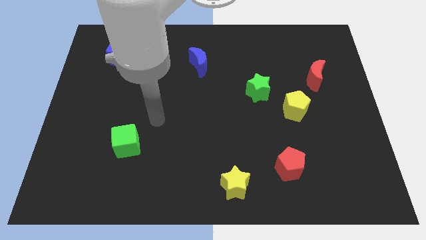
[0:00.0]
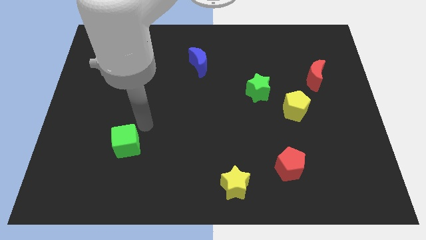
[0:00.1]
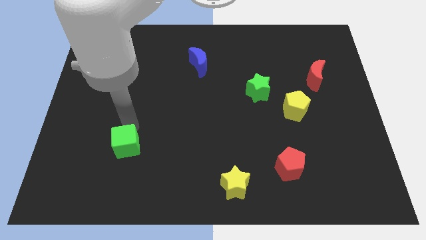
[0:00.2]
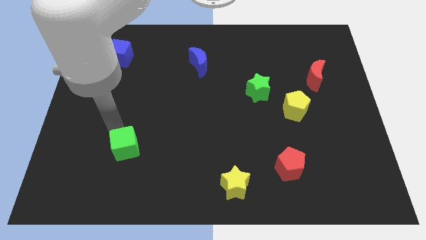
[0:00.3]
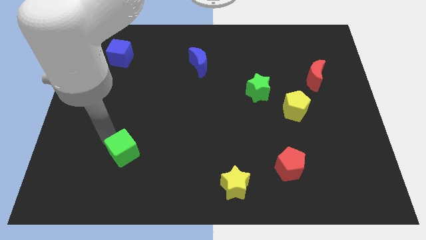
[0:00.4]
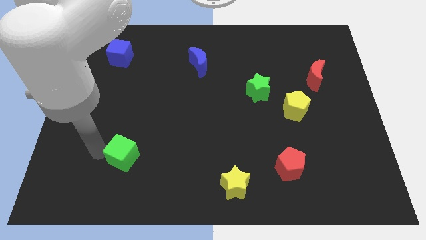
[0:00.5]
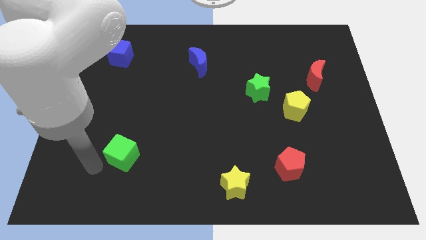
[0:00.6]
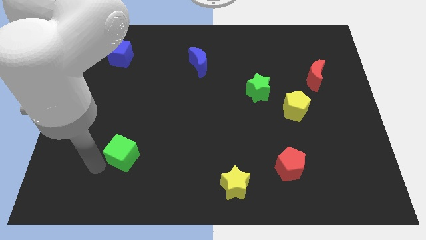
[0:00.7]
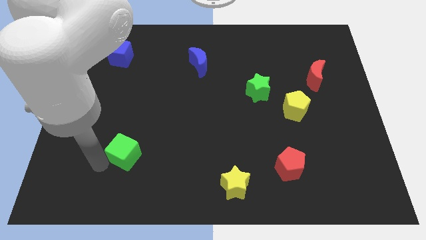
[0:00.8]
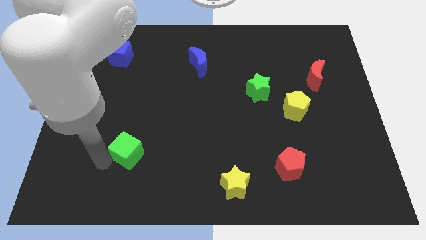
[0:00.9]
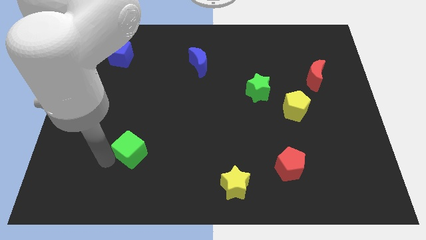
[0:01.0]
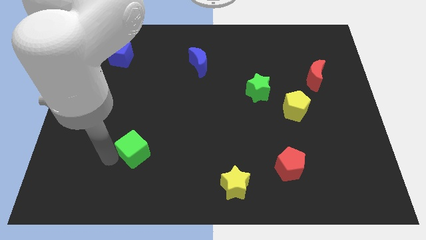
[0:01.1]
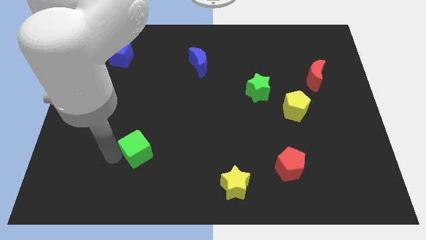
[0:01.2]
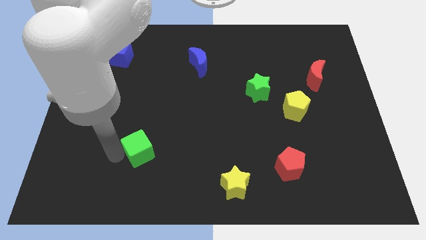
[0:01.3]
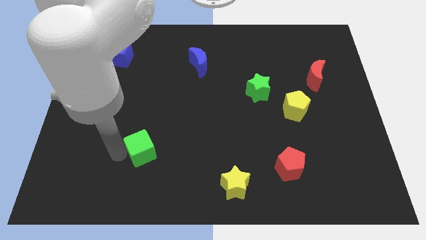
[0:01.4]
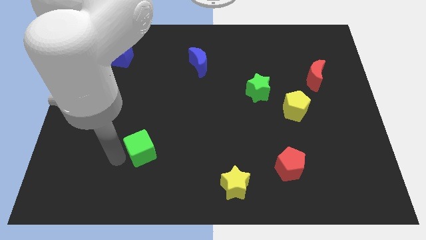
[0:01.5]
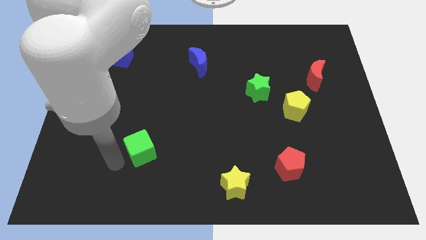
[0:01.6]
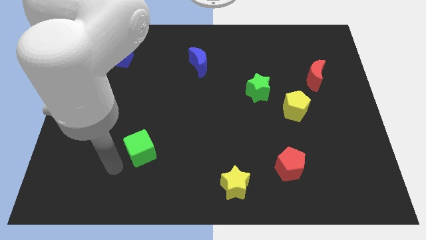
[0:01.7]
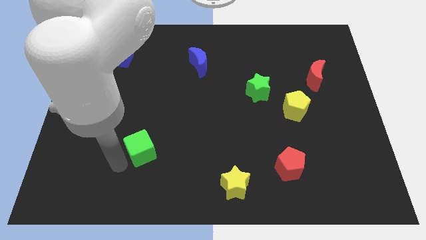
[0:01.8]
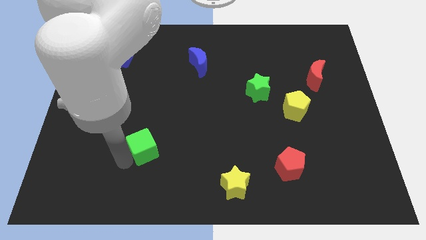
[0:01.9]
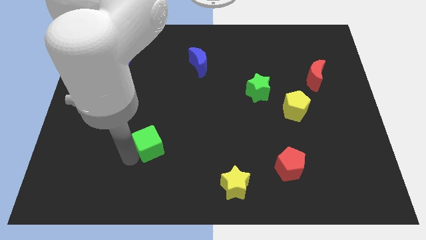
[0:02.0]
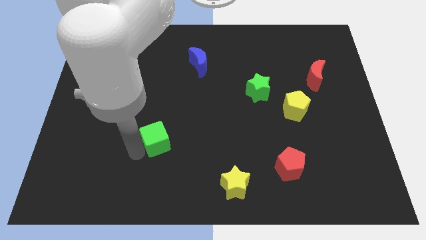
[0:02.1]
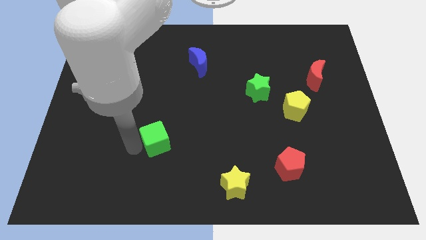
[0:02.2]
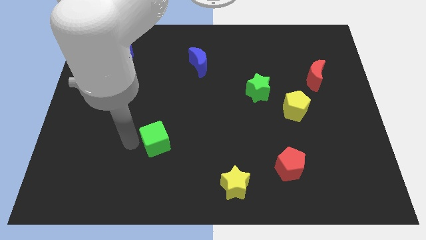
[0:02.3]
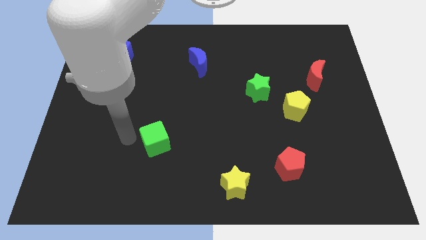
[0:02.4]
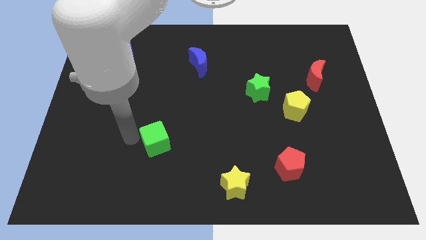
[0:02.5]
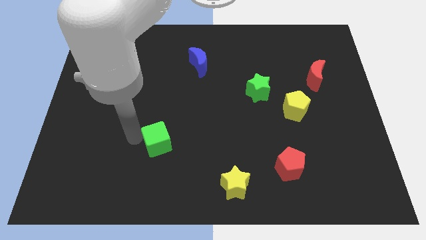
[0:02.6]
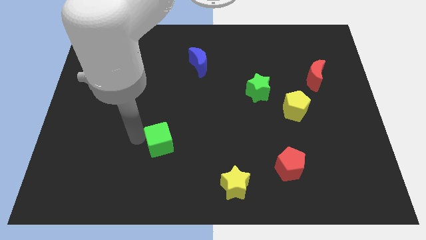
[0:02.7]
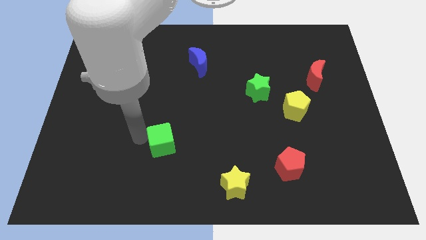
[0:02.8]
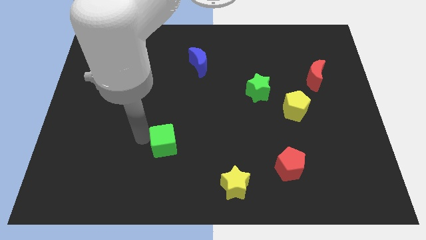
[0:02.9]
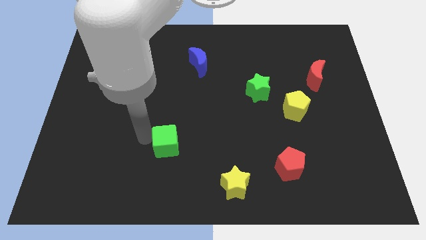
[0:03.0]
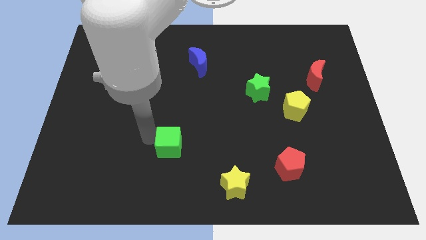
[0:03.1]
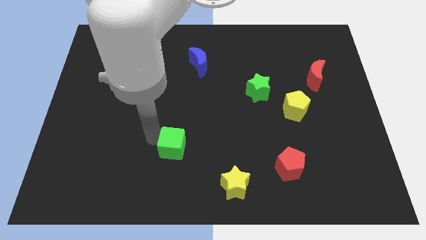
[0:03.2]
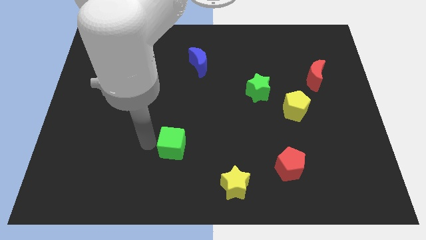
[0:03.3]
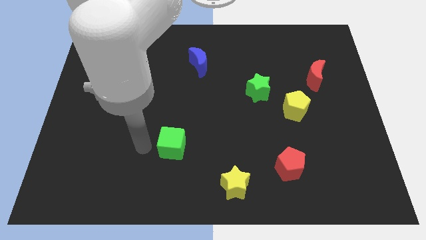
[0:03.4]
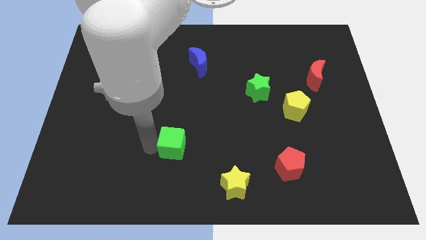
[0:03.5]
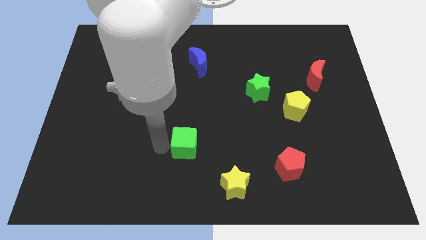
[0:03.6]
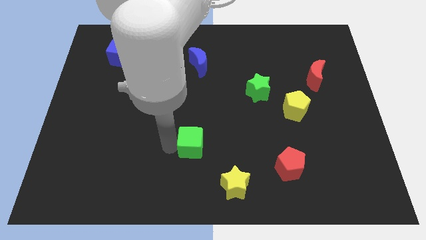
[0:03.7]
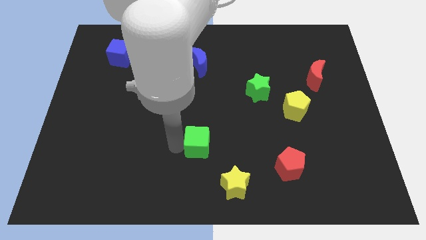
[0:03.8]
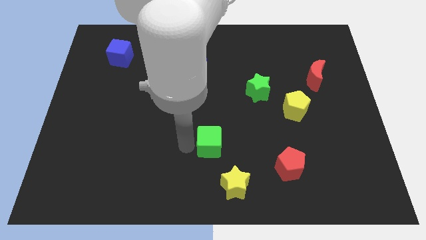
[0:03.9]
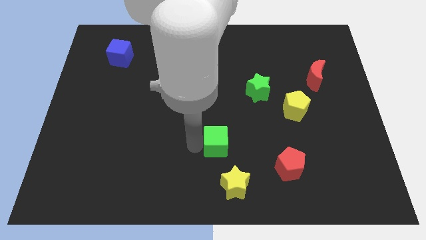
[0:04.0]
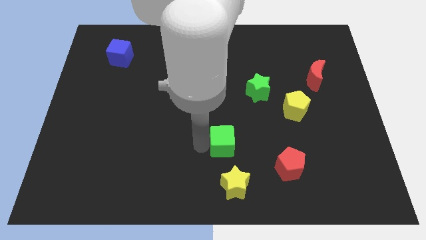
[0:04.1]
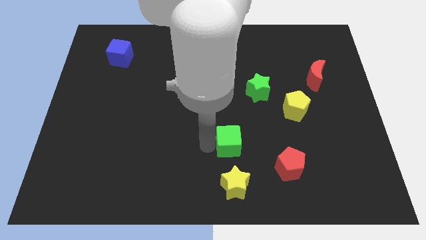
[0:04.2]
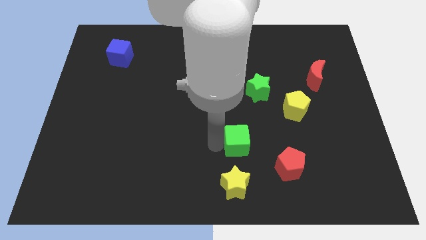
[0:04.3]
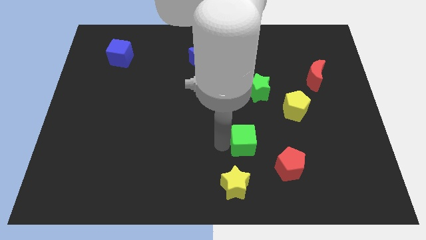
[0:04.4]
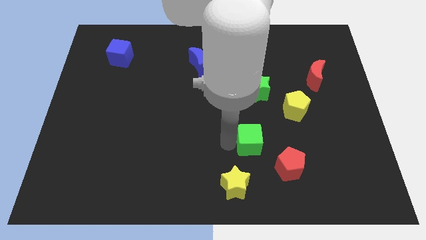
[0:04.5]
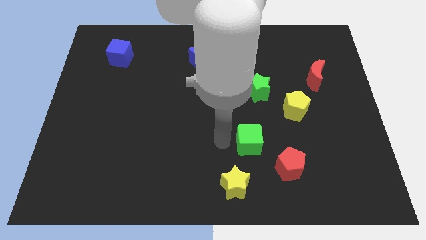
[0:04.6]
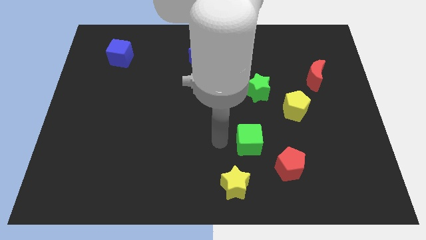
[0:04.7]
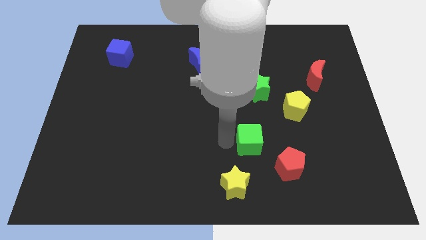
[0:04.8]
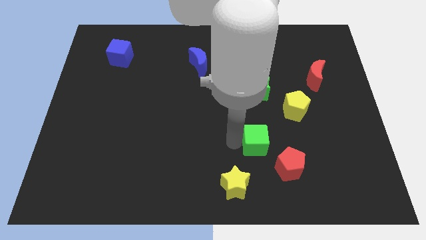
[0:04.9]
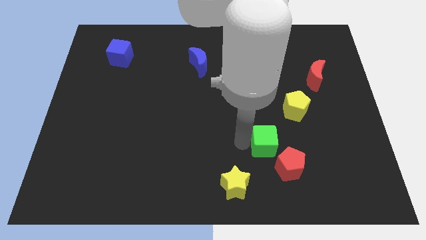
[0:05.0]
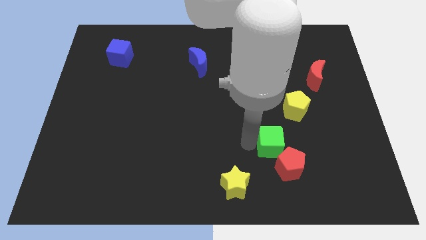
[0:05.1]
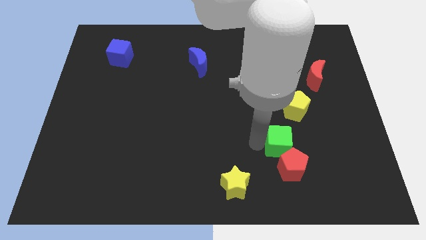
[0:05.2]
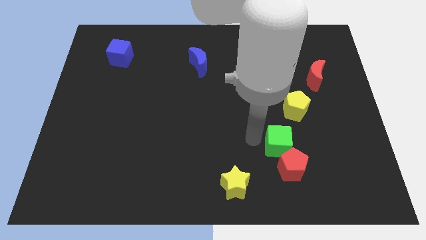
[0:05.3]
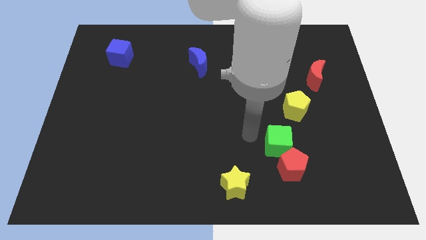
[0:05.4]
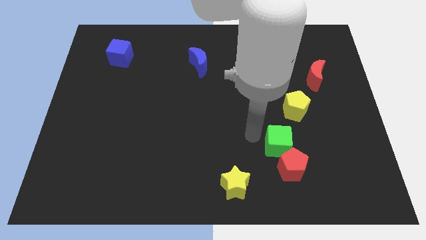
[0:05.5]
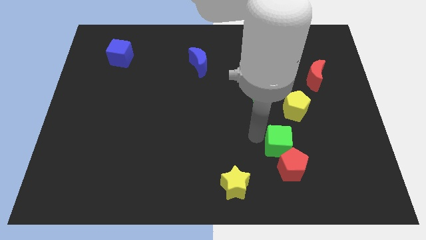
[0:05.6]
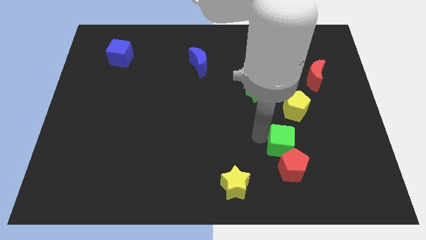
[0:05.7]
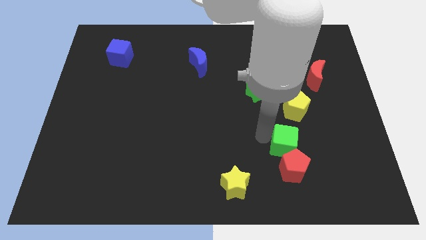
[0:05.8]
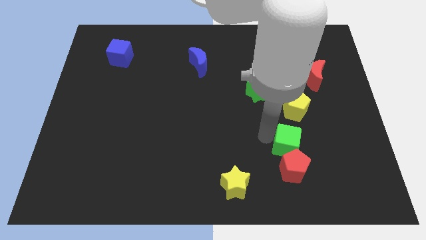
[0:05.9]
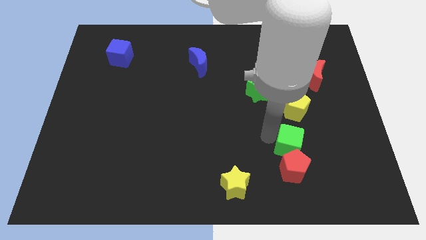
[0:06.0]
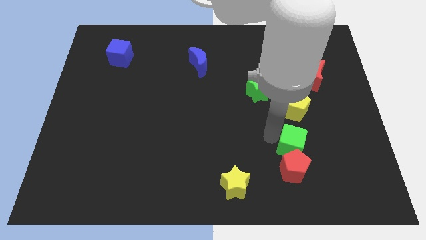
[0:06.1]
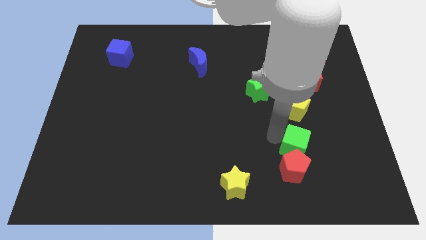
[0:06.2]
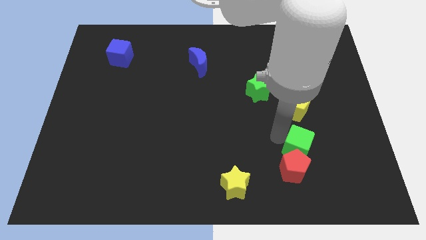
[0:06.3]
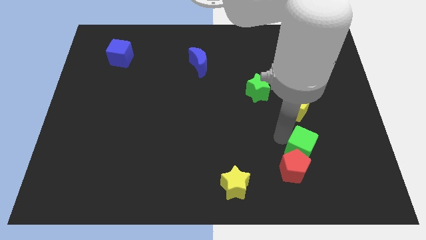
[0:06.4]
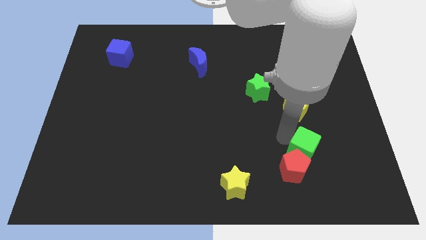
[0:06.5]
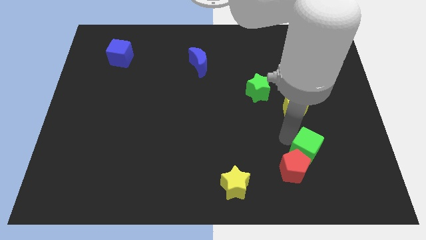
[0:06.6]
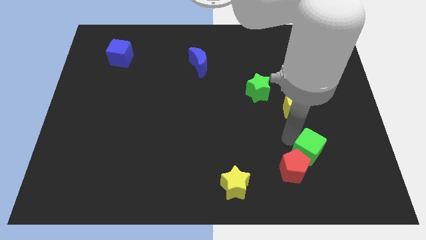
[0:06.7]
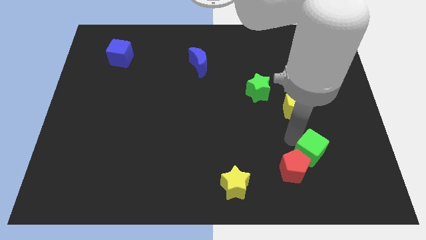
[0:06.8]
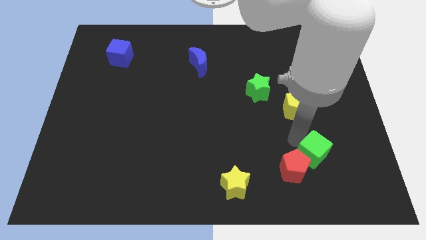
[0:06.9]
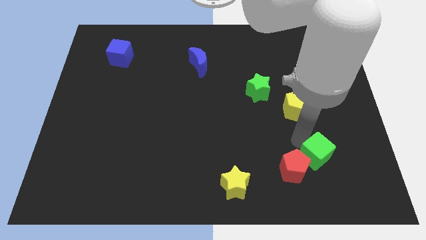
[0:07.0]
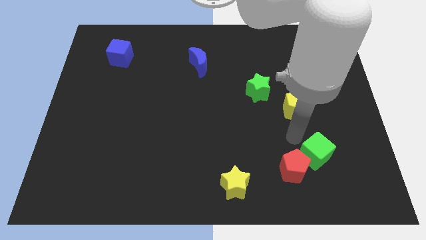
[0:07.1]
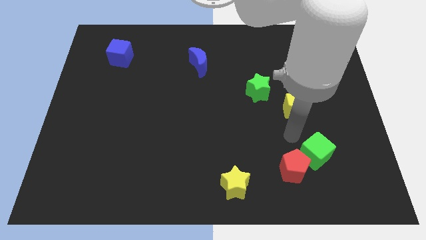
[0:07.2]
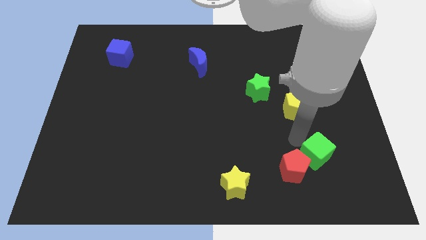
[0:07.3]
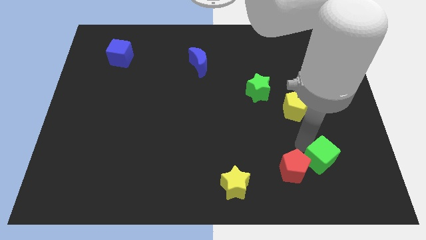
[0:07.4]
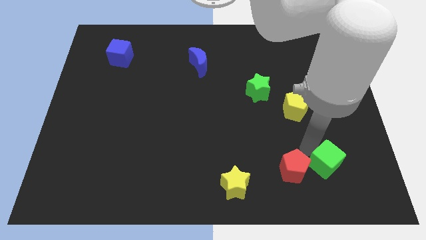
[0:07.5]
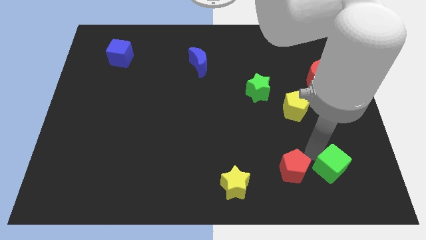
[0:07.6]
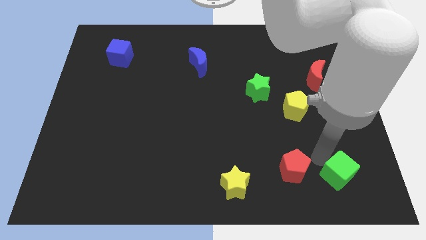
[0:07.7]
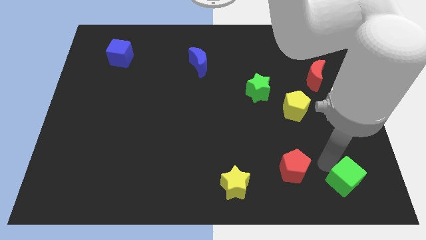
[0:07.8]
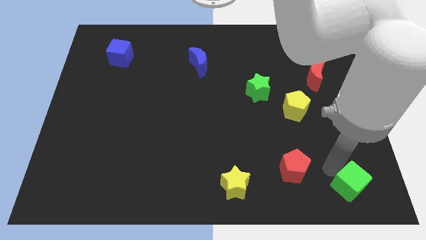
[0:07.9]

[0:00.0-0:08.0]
move the green cube to the bottom right of the board
